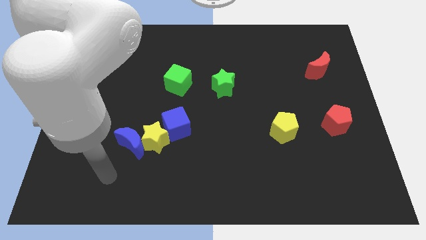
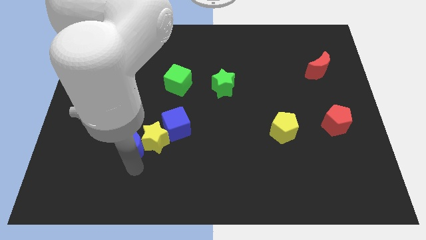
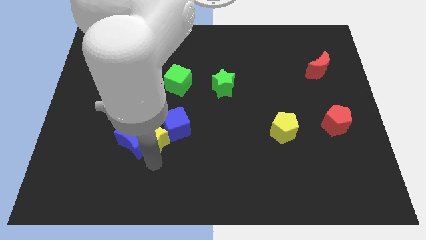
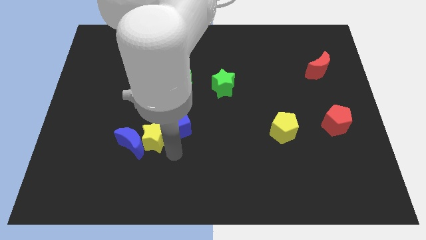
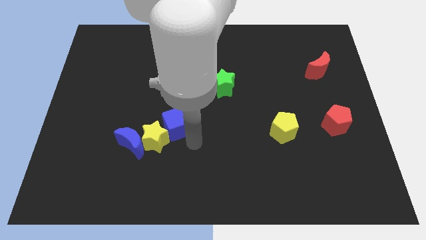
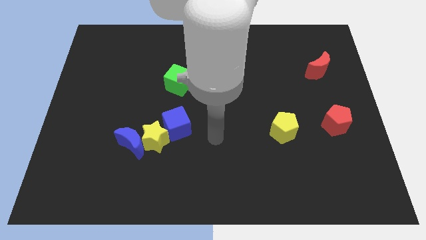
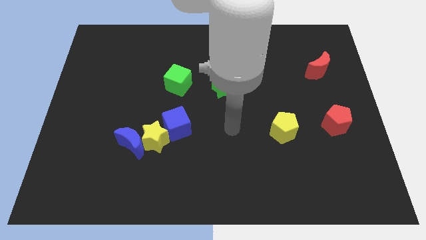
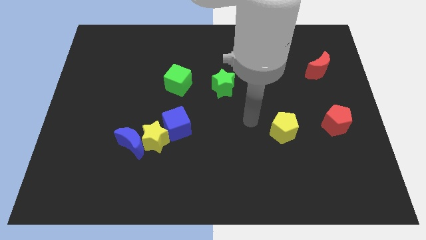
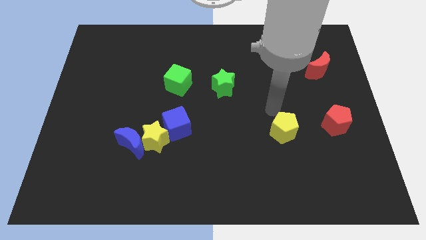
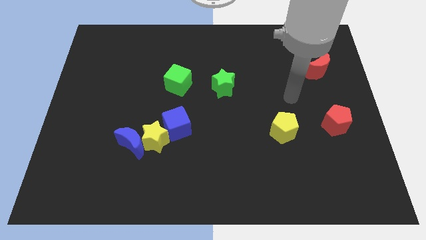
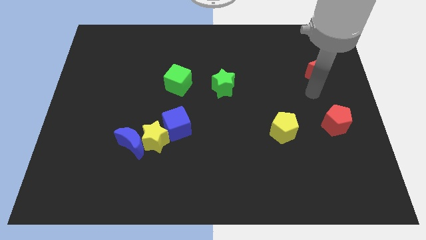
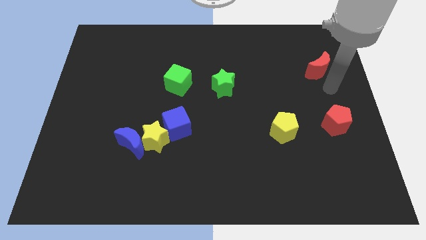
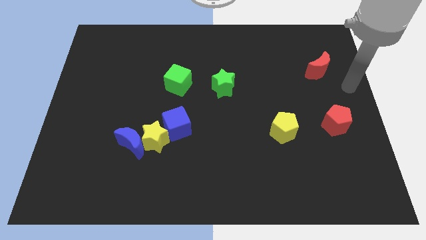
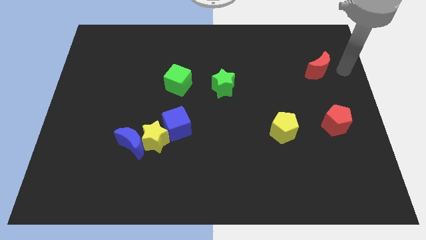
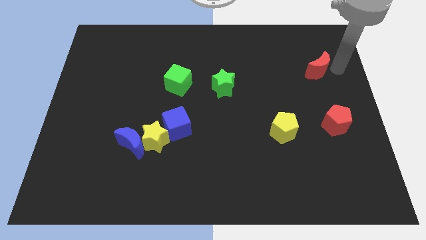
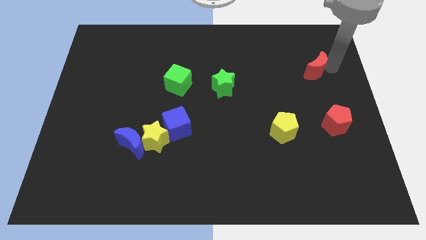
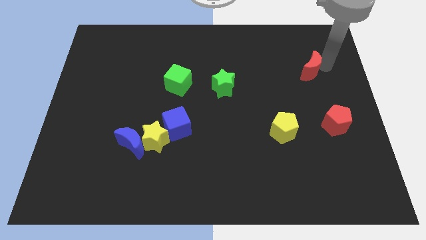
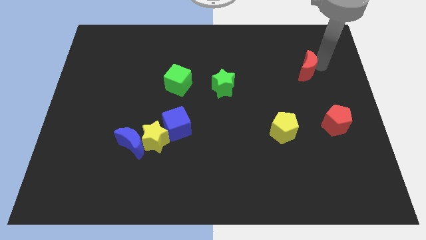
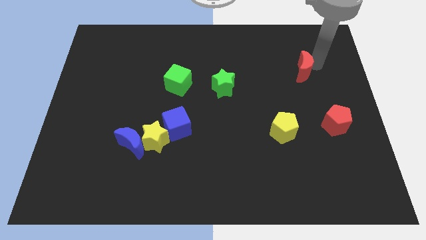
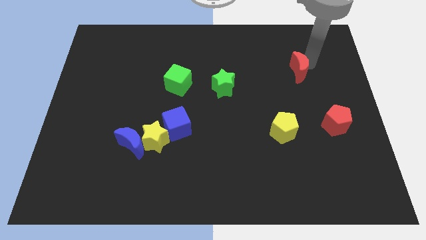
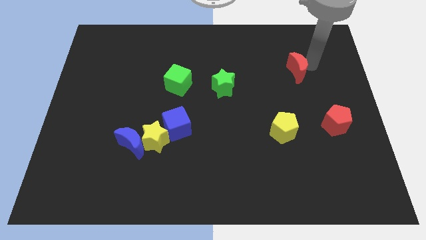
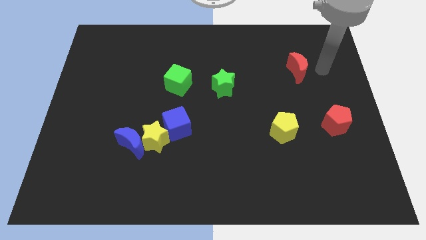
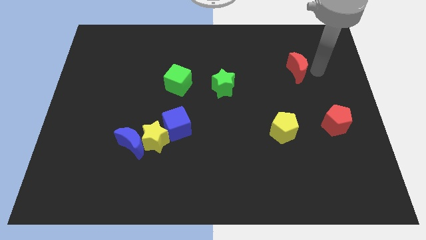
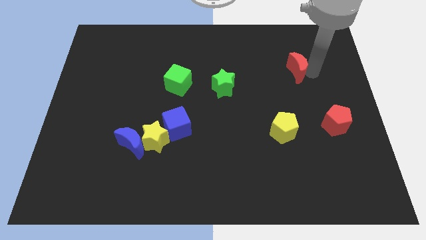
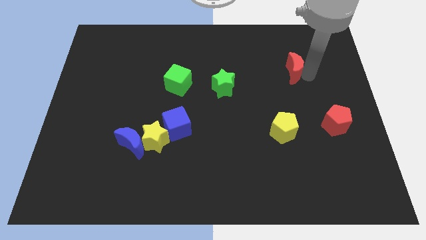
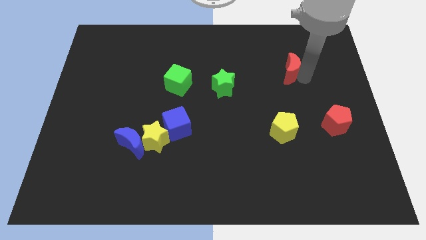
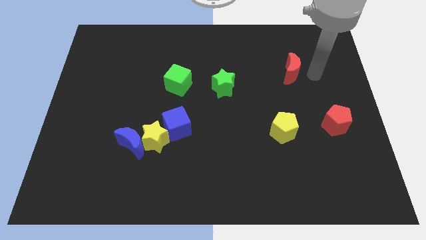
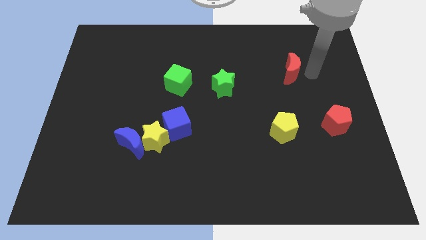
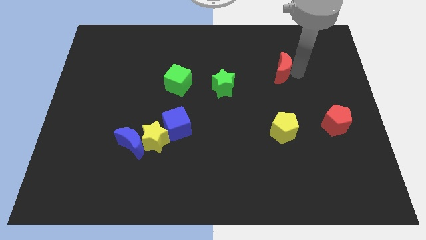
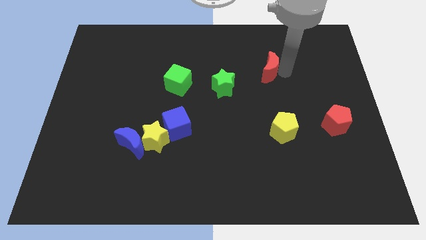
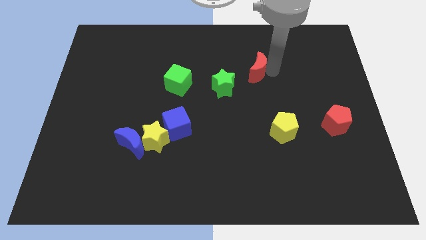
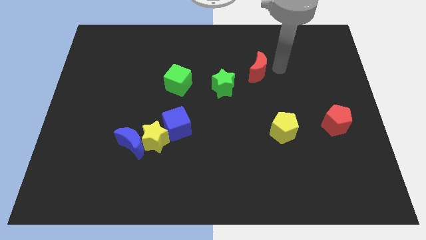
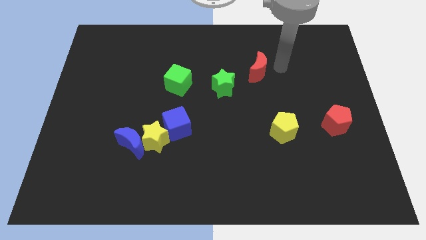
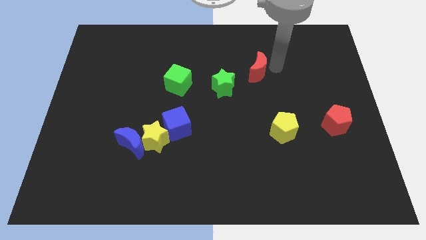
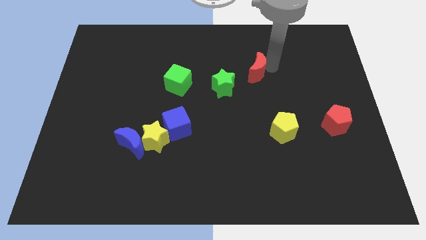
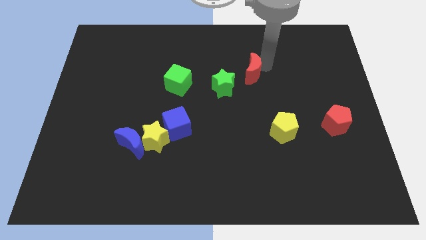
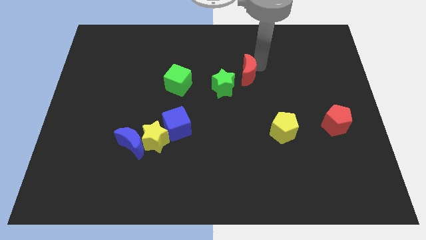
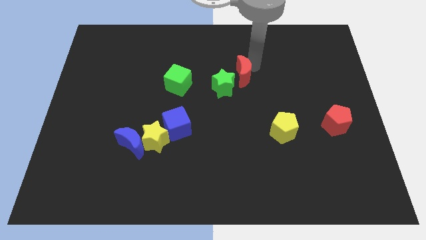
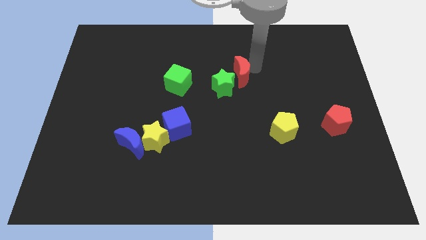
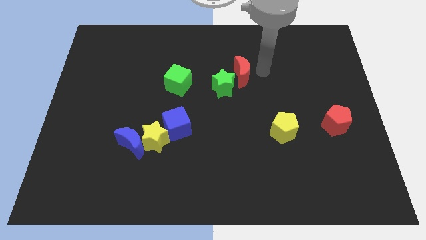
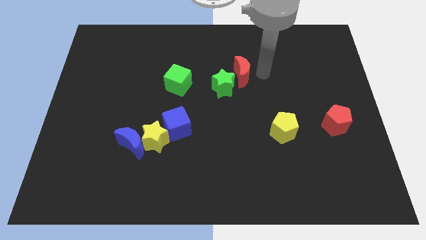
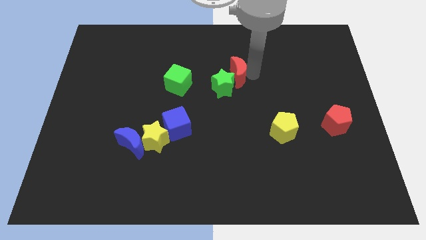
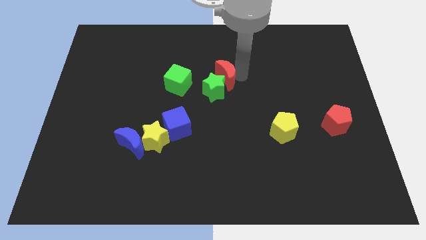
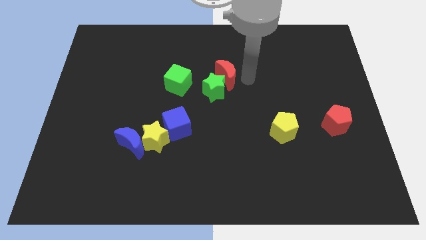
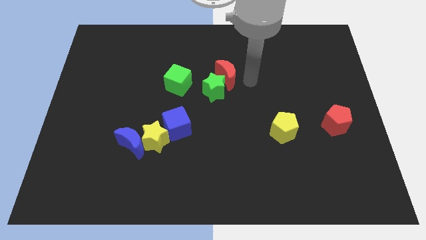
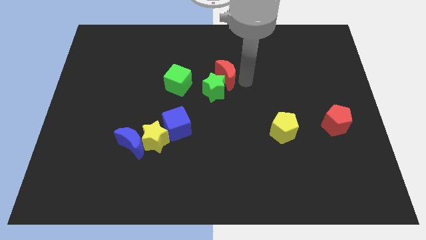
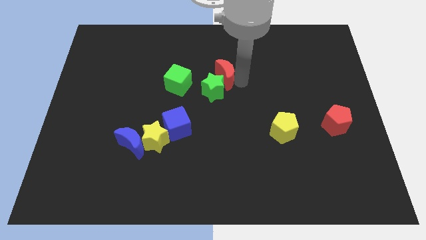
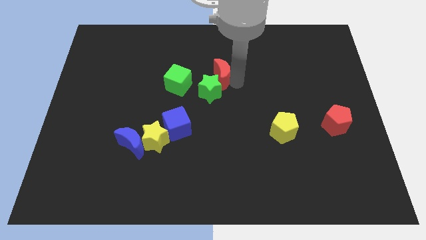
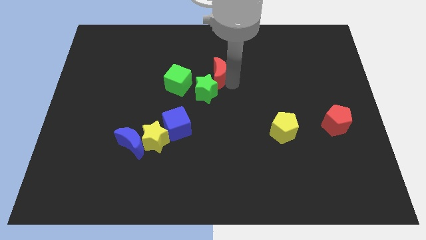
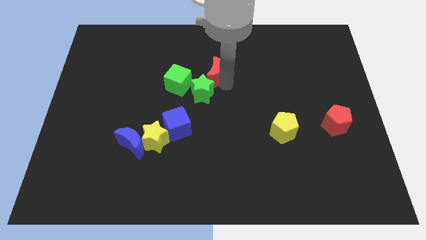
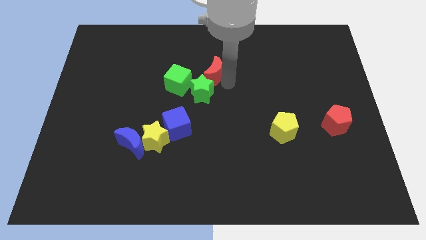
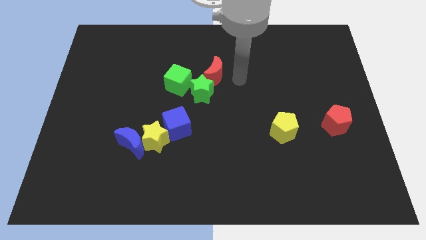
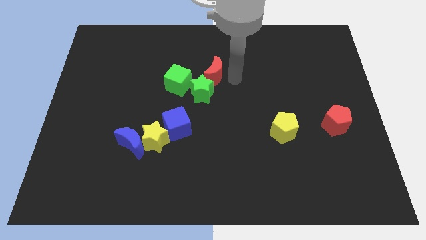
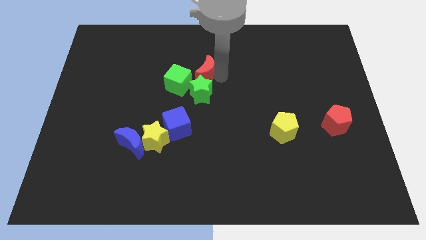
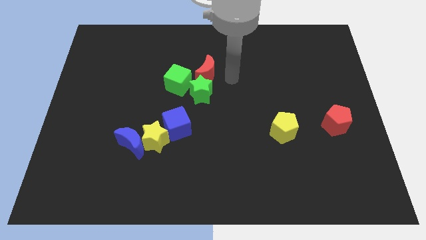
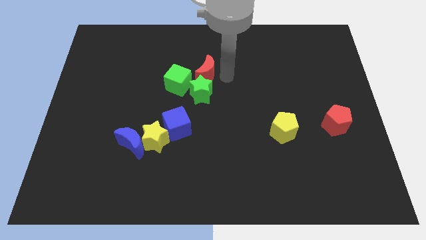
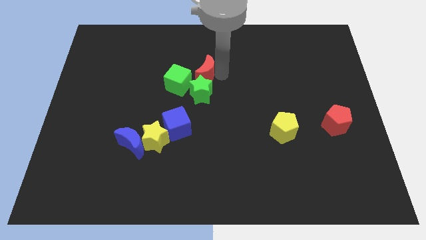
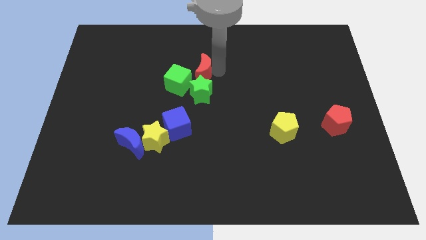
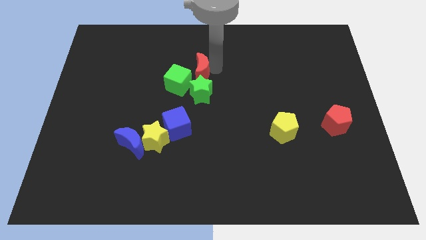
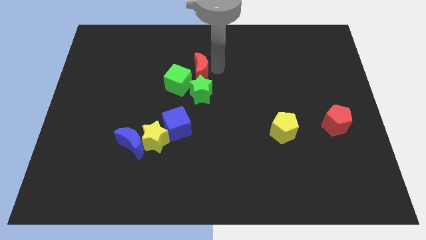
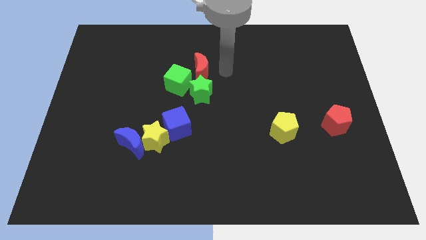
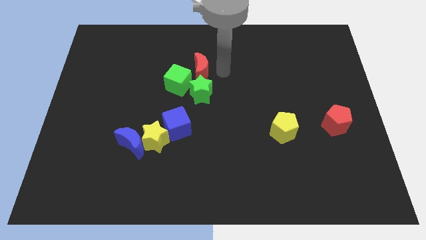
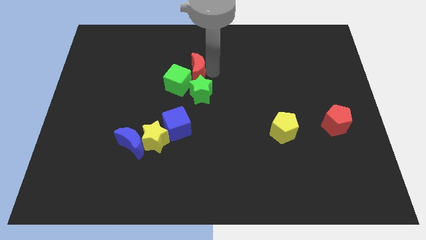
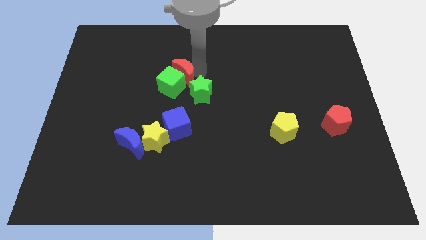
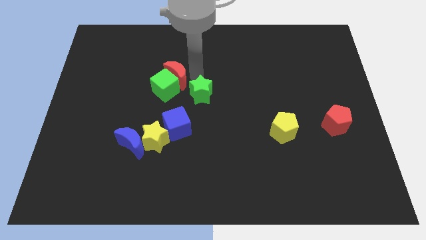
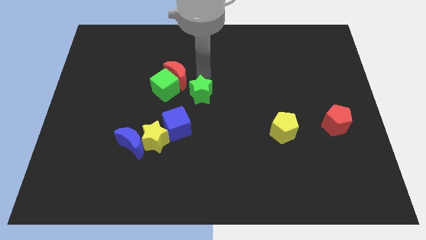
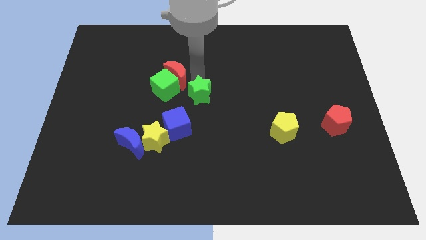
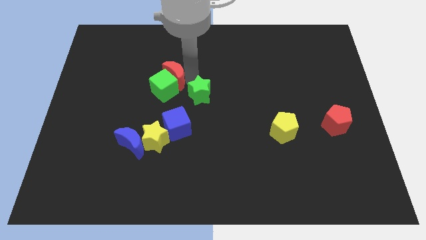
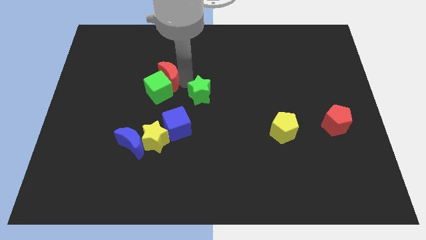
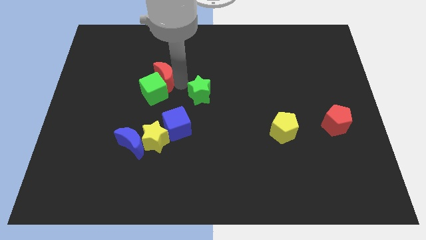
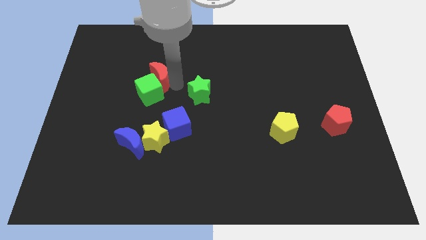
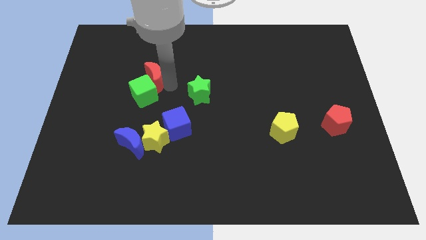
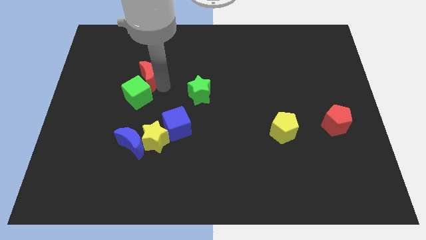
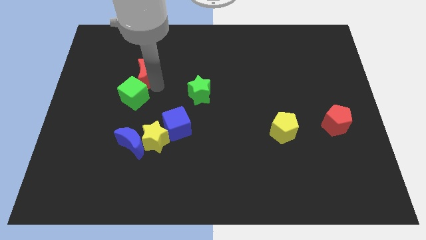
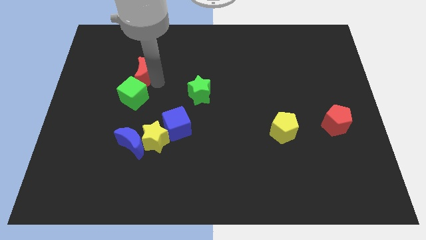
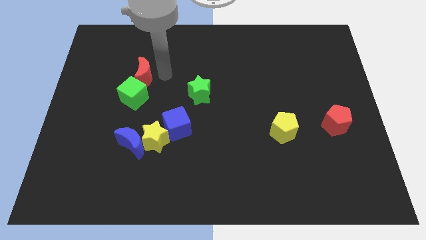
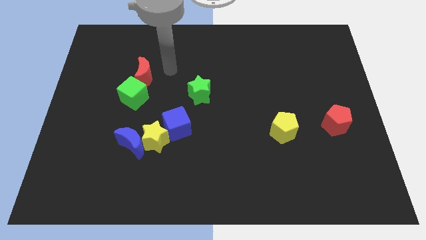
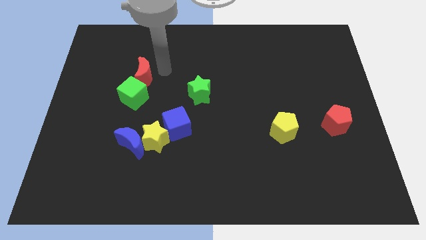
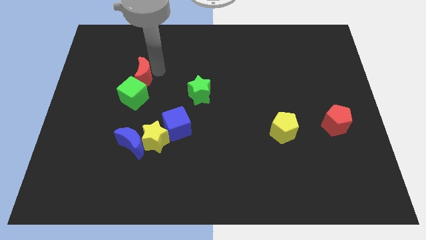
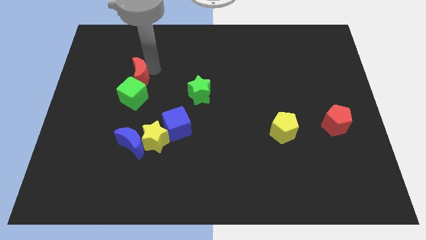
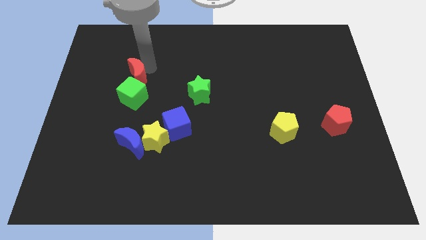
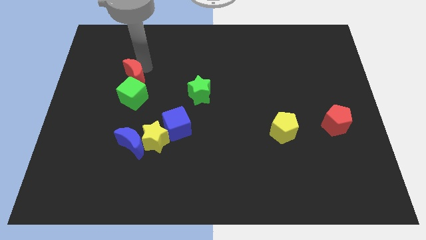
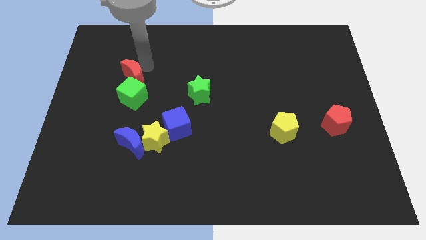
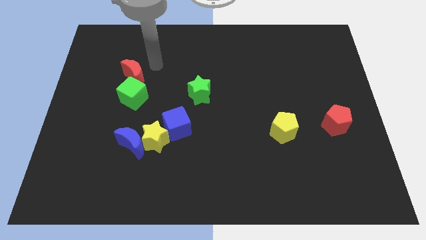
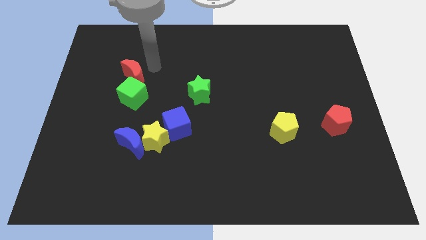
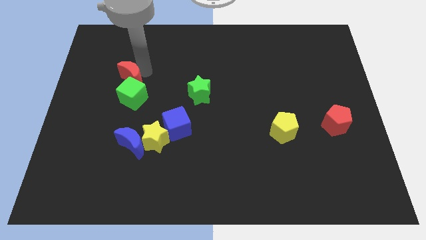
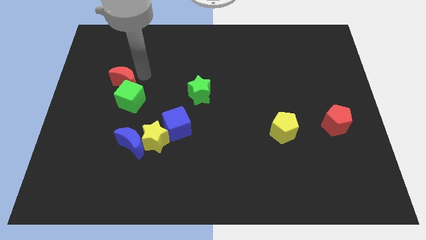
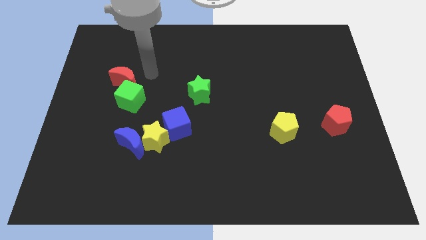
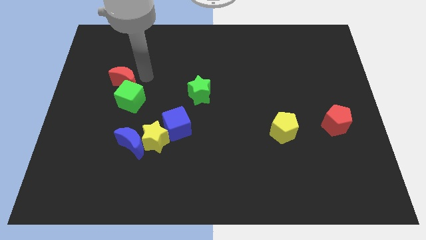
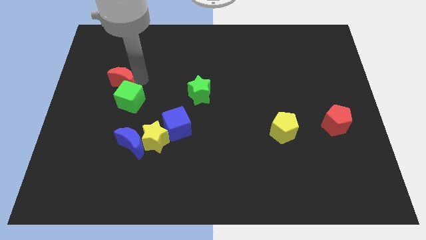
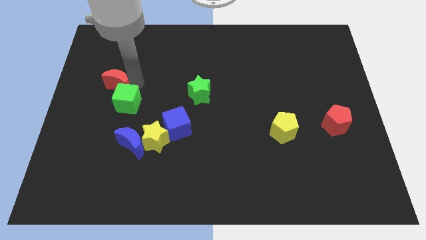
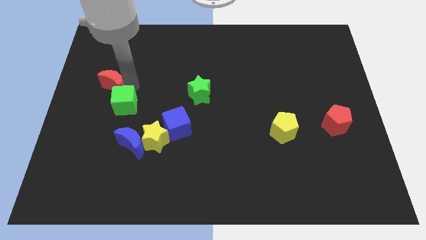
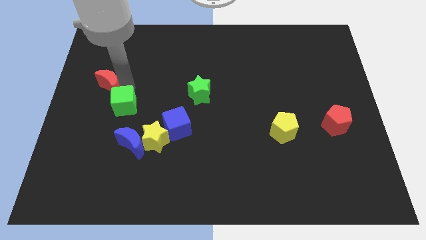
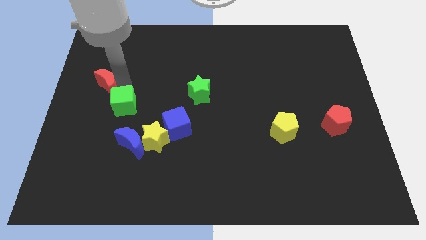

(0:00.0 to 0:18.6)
slide the red moon to the left side of the board
